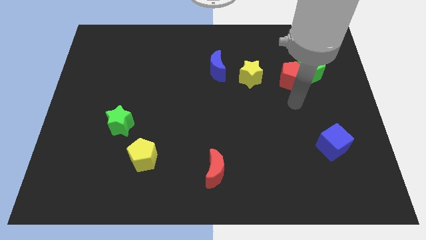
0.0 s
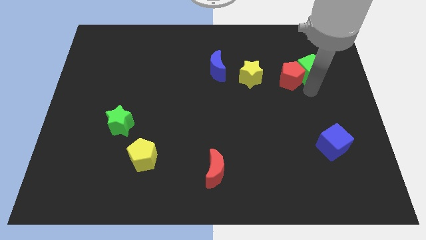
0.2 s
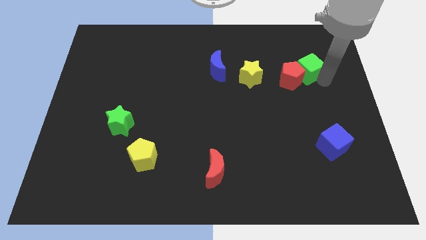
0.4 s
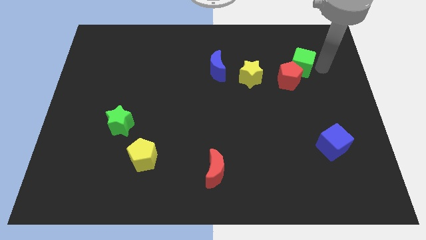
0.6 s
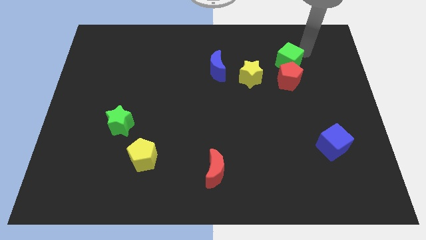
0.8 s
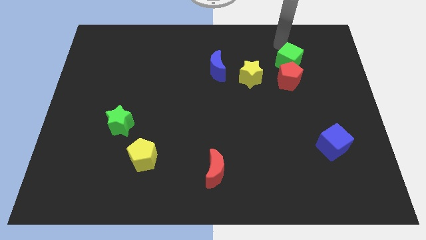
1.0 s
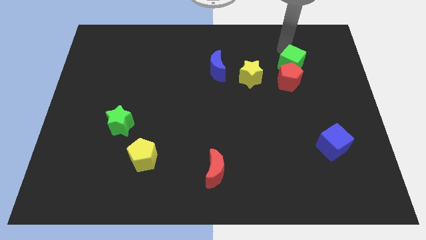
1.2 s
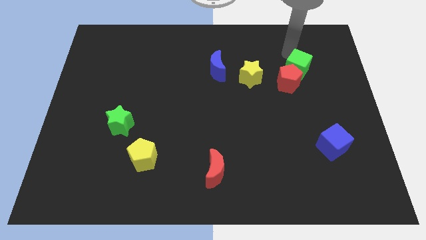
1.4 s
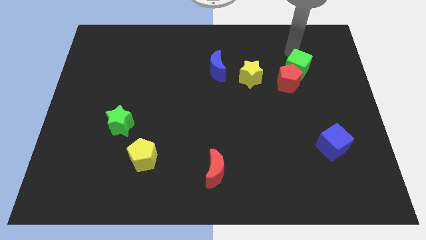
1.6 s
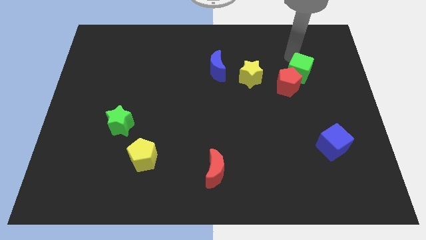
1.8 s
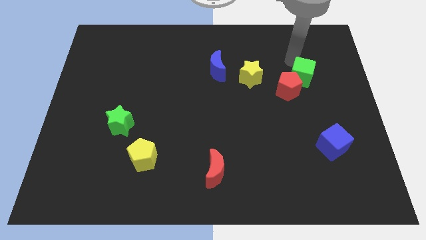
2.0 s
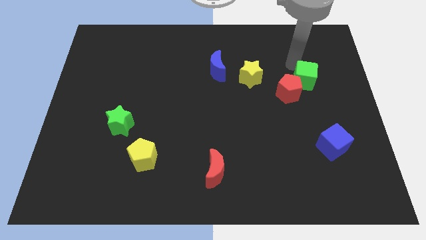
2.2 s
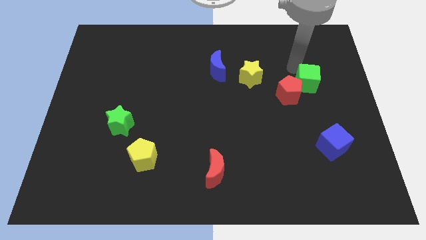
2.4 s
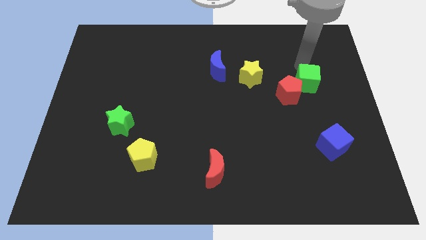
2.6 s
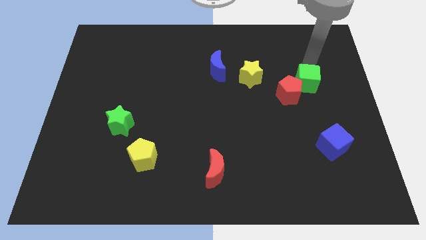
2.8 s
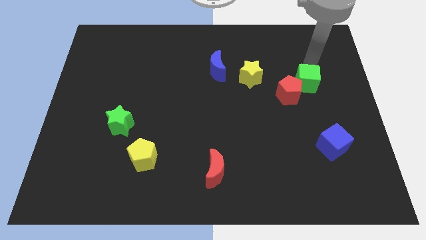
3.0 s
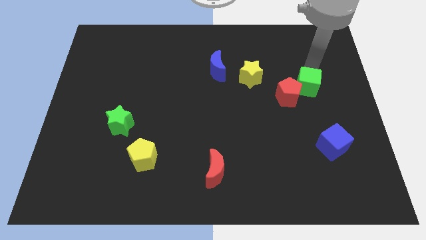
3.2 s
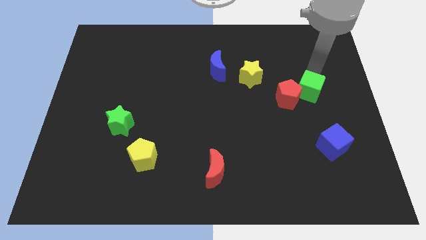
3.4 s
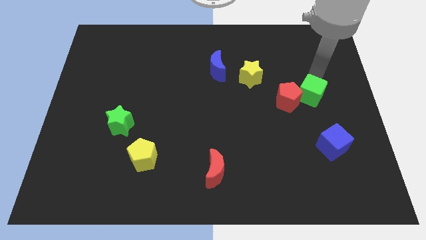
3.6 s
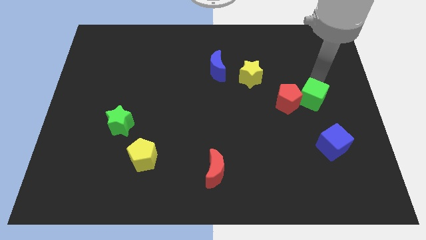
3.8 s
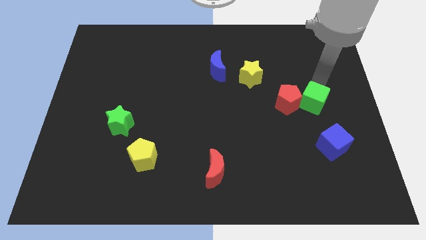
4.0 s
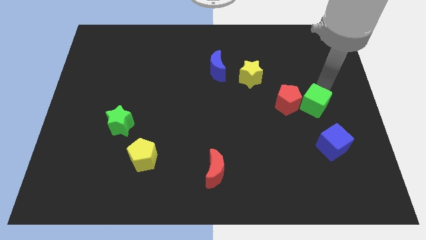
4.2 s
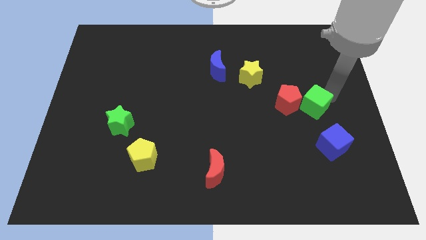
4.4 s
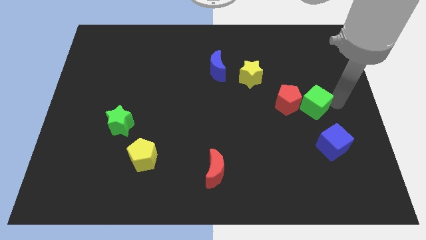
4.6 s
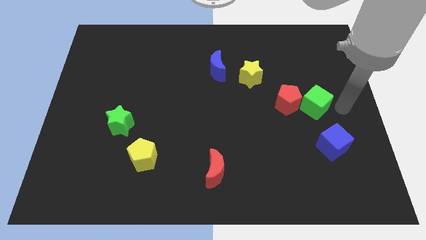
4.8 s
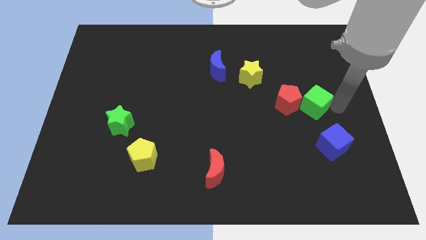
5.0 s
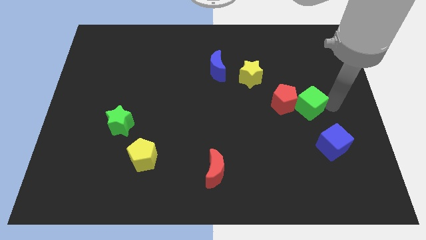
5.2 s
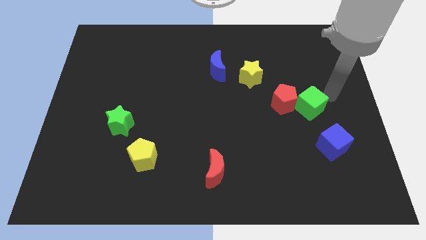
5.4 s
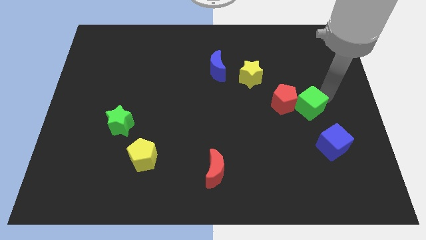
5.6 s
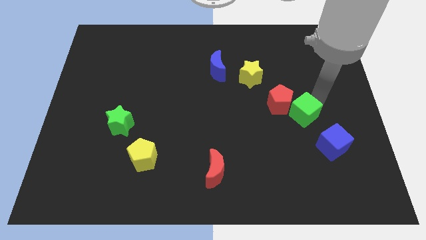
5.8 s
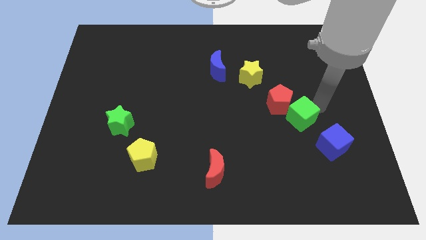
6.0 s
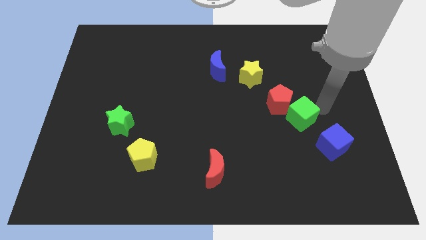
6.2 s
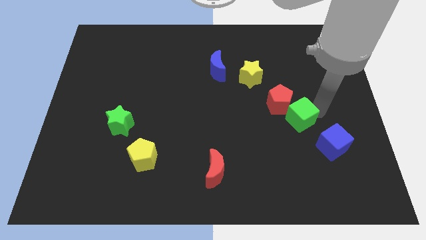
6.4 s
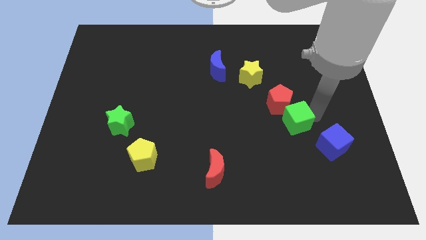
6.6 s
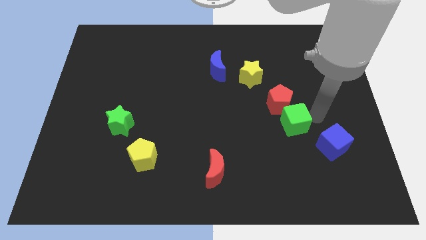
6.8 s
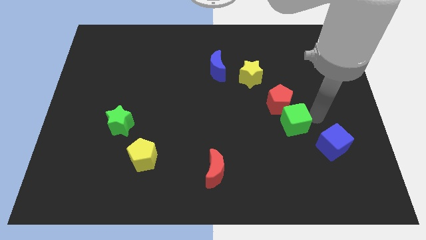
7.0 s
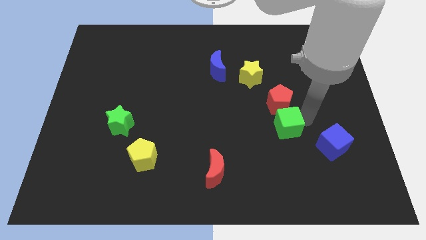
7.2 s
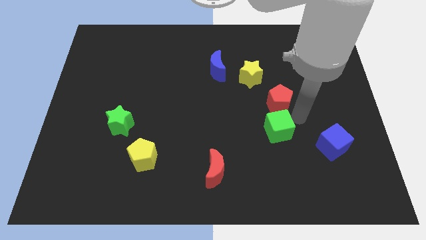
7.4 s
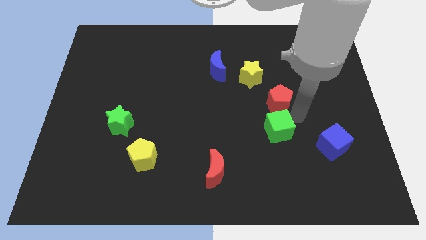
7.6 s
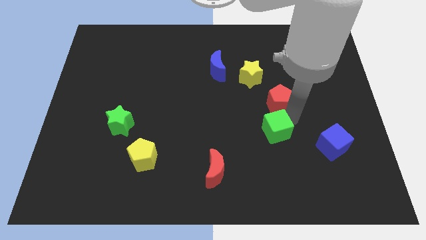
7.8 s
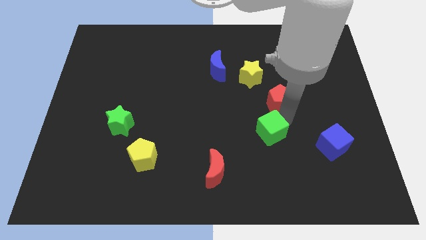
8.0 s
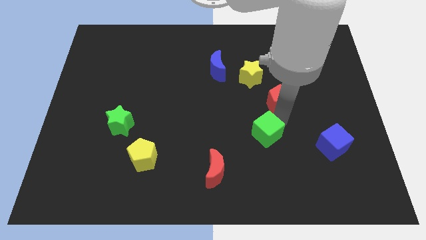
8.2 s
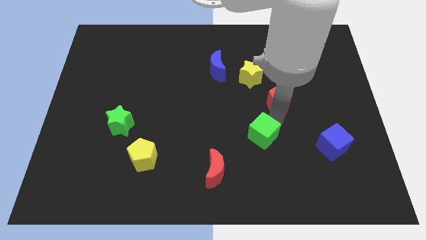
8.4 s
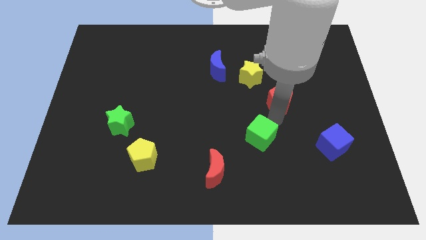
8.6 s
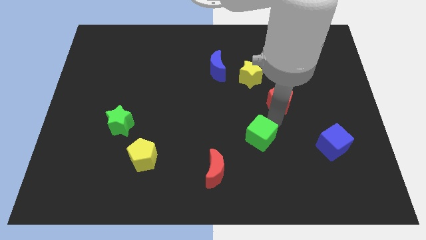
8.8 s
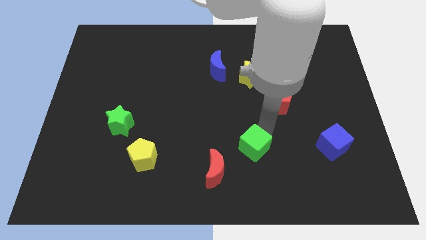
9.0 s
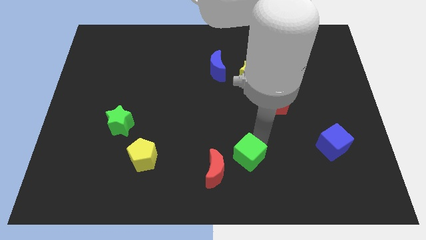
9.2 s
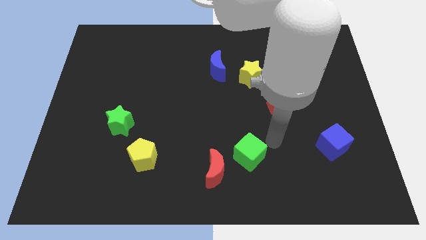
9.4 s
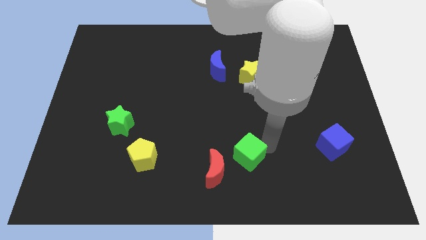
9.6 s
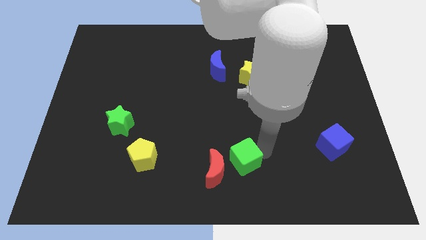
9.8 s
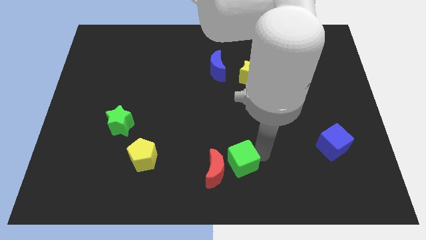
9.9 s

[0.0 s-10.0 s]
slide the green cube next to the red moon

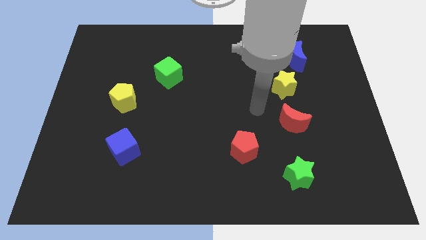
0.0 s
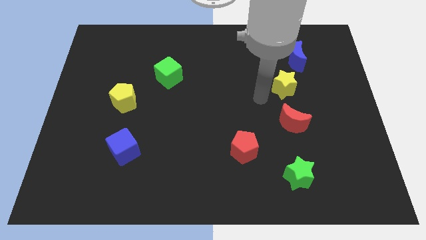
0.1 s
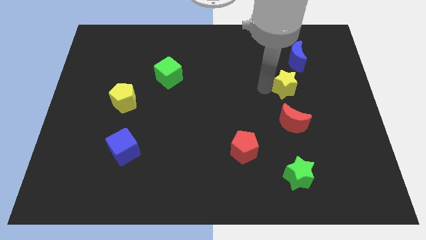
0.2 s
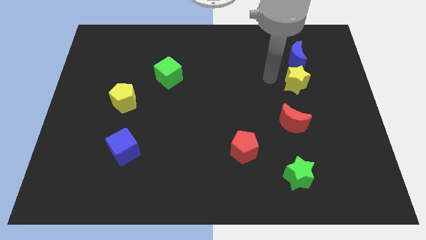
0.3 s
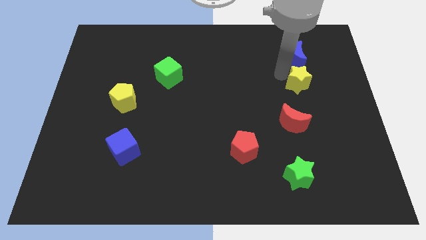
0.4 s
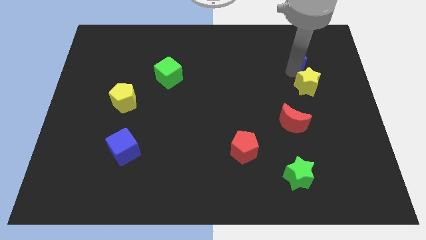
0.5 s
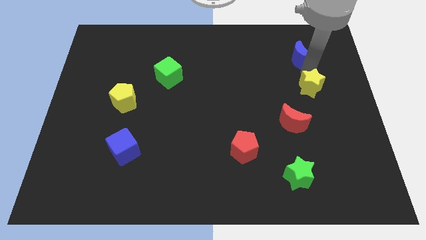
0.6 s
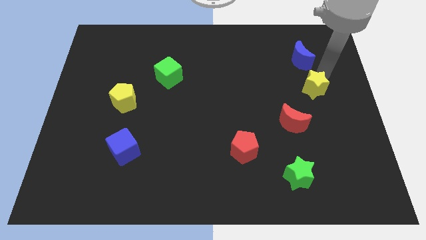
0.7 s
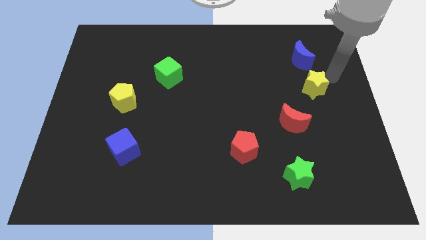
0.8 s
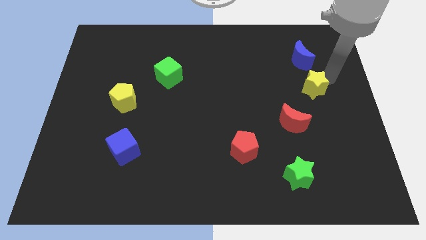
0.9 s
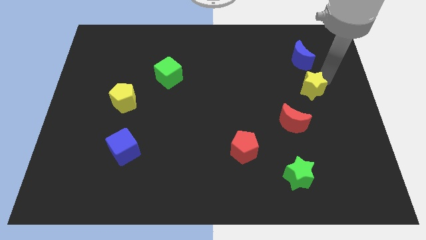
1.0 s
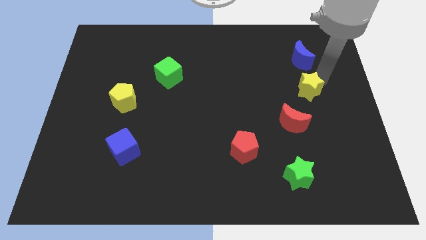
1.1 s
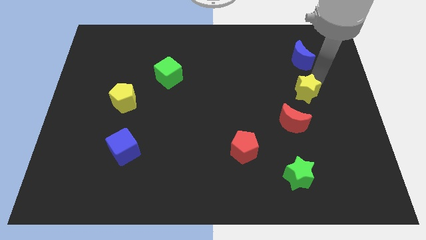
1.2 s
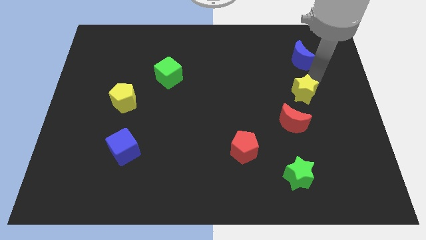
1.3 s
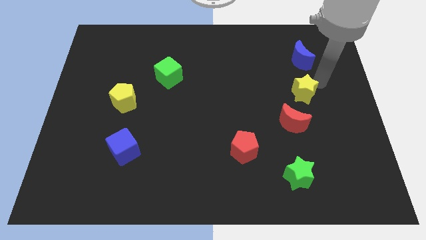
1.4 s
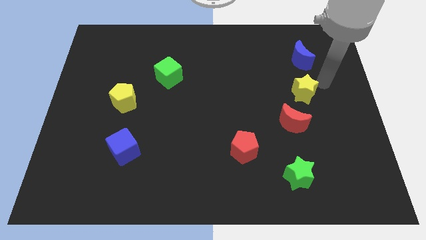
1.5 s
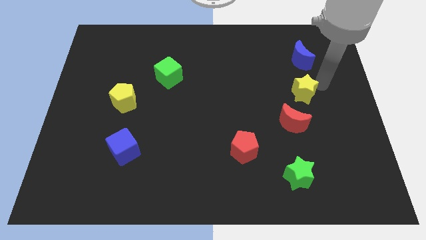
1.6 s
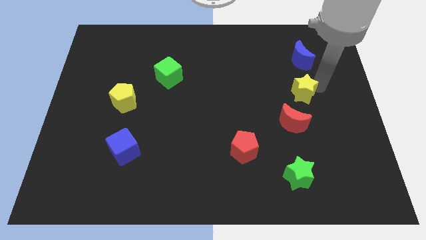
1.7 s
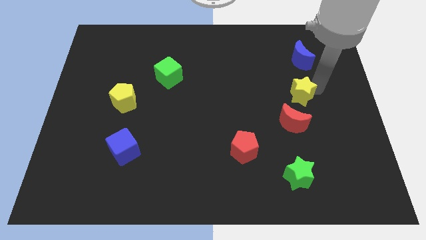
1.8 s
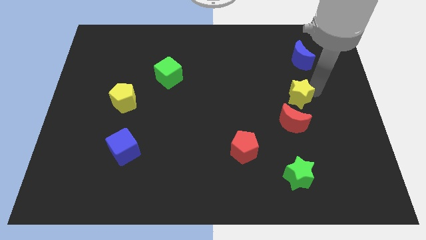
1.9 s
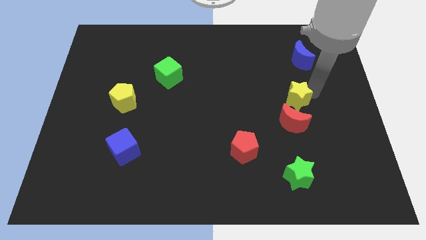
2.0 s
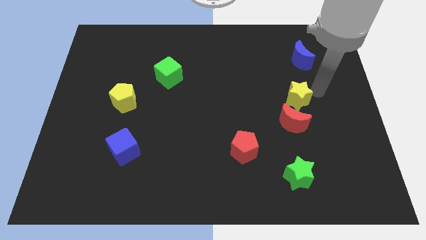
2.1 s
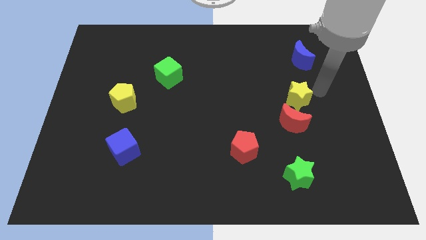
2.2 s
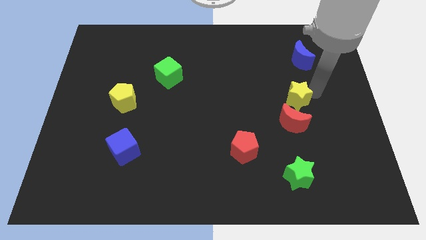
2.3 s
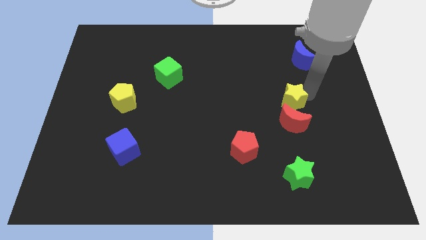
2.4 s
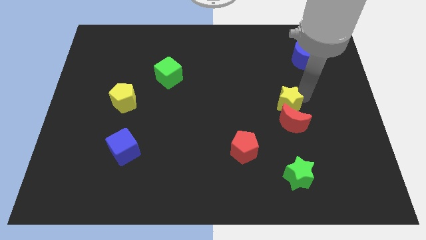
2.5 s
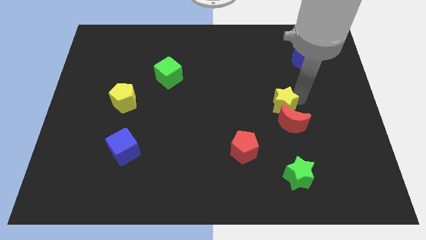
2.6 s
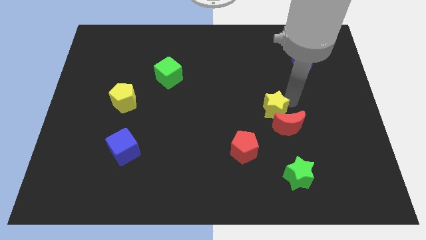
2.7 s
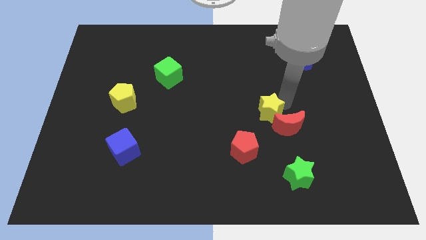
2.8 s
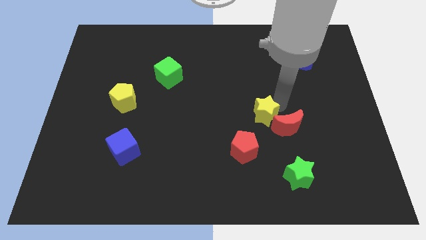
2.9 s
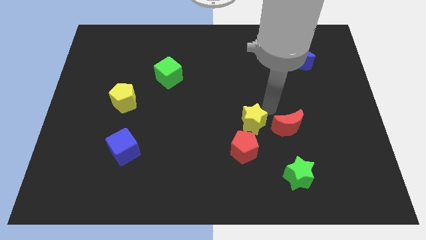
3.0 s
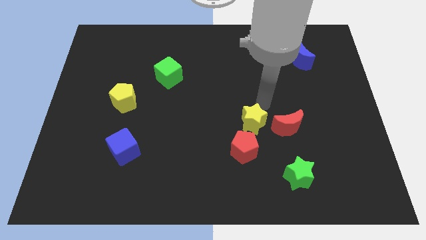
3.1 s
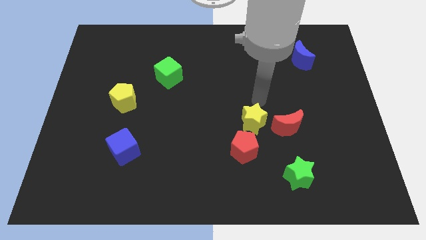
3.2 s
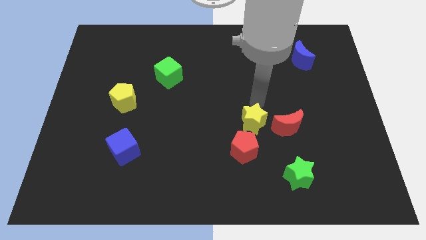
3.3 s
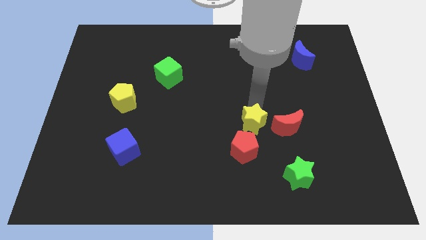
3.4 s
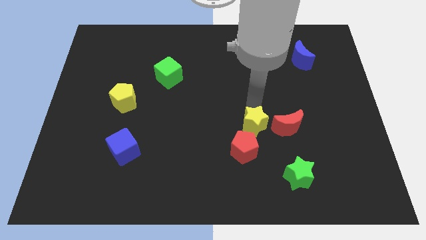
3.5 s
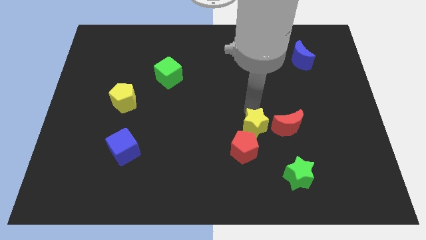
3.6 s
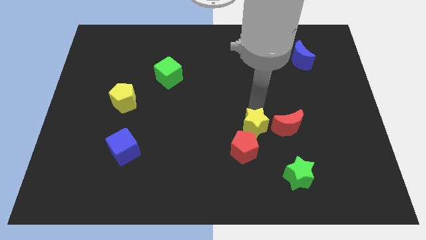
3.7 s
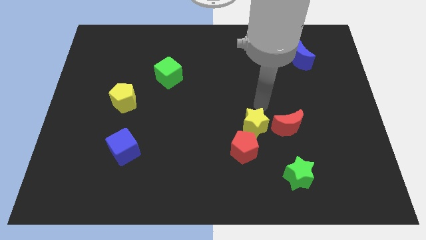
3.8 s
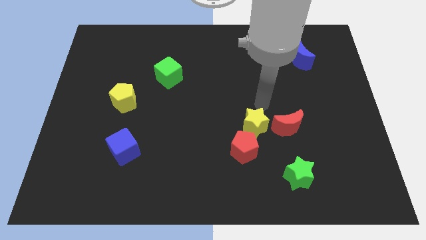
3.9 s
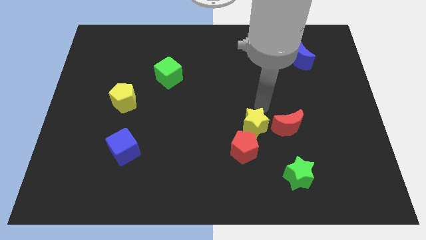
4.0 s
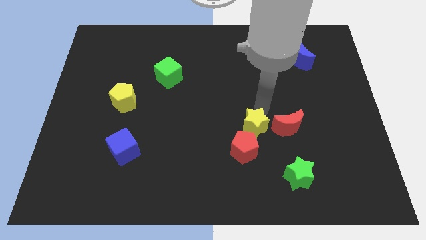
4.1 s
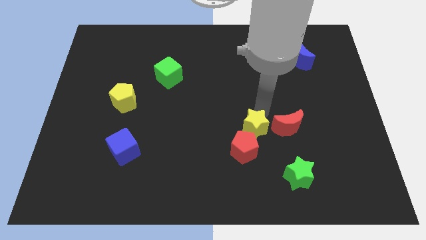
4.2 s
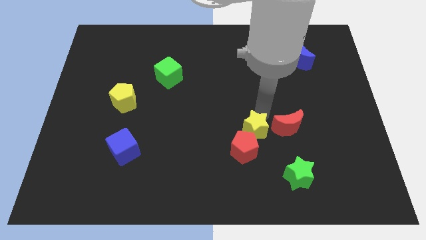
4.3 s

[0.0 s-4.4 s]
slide the yellow star to the red pentagon
